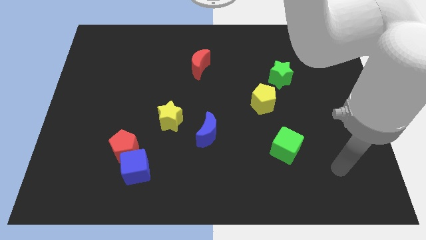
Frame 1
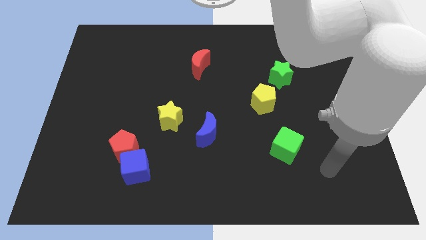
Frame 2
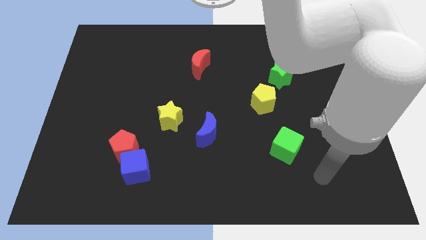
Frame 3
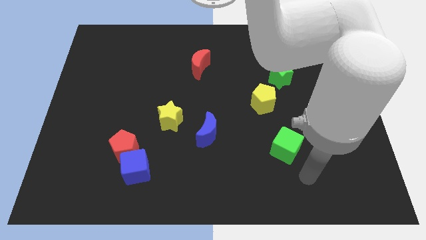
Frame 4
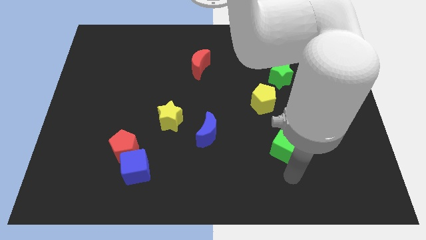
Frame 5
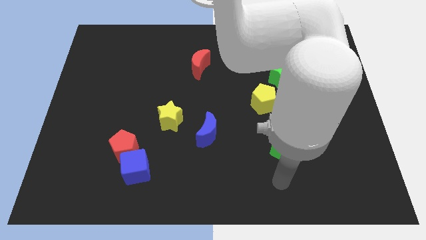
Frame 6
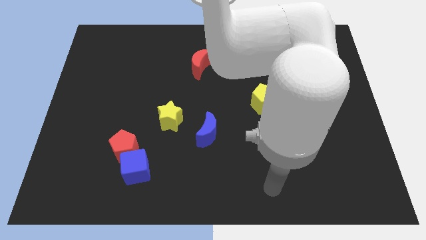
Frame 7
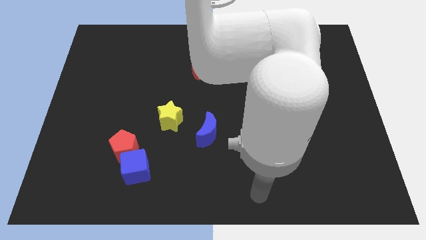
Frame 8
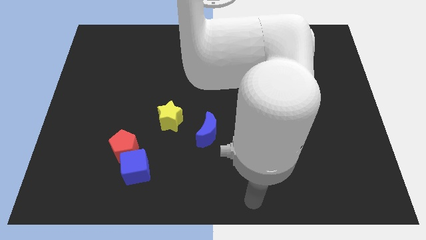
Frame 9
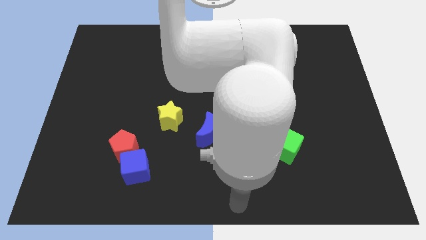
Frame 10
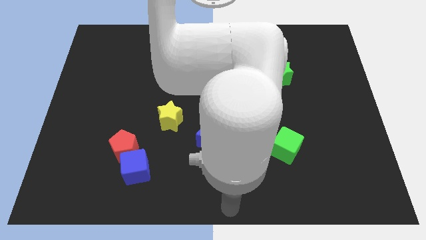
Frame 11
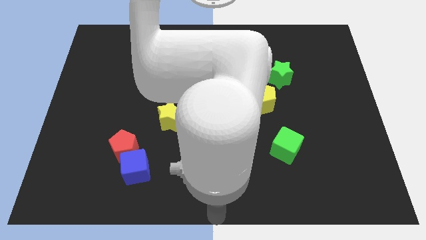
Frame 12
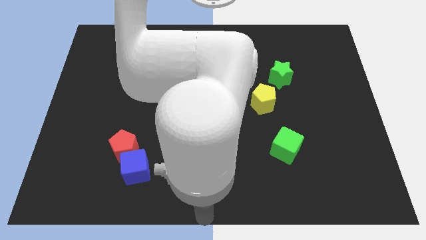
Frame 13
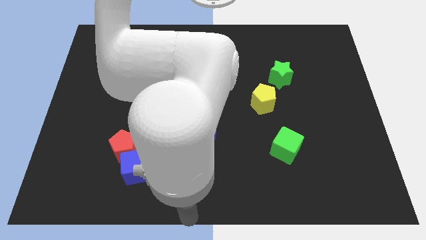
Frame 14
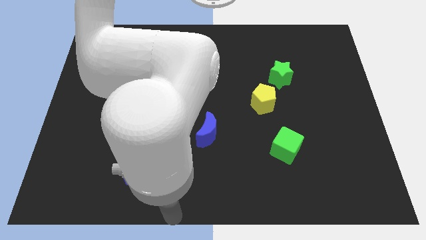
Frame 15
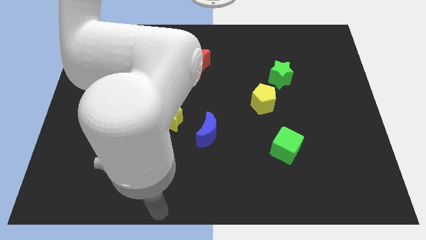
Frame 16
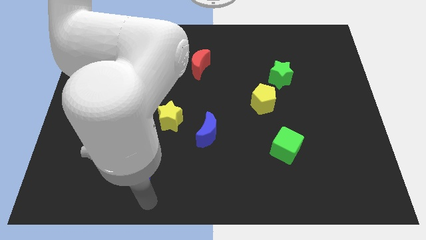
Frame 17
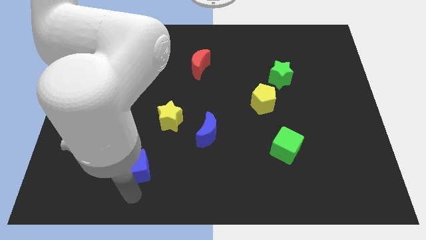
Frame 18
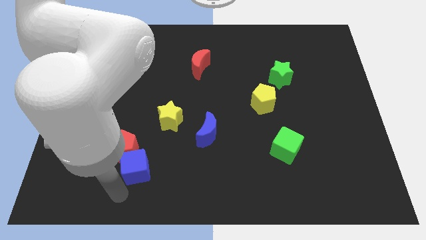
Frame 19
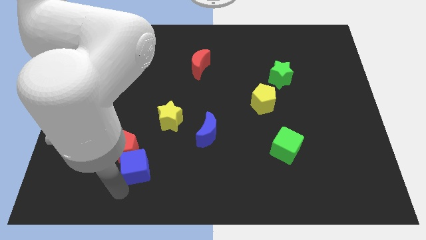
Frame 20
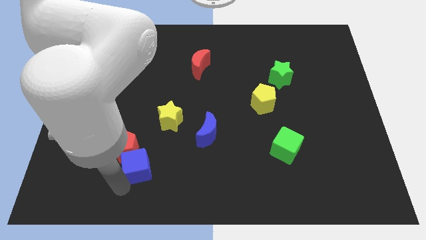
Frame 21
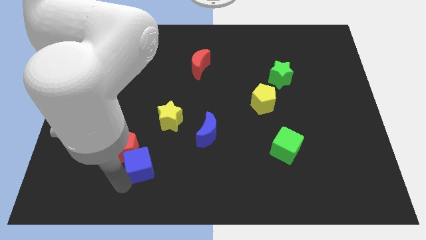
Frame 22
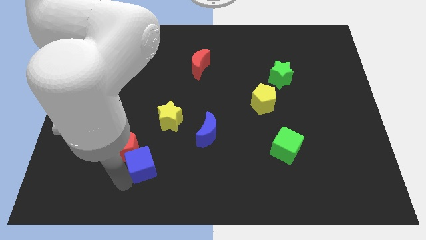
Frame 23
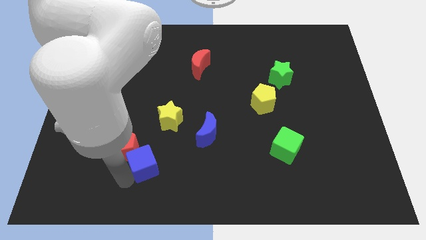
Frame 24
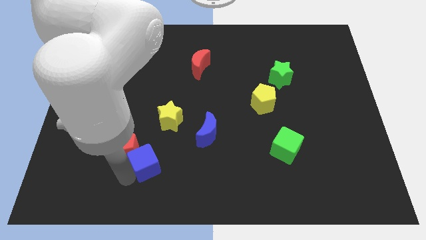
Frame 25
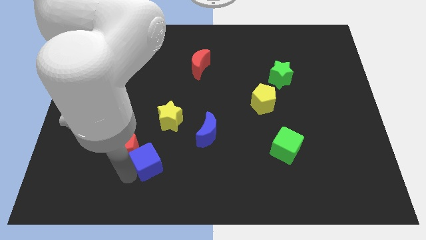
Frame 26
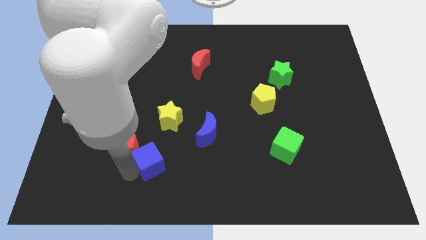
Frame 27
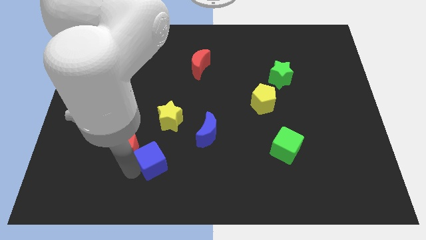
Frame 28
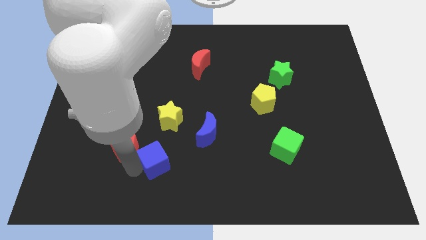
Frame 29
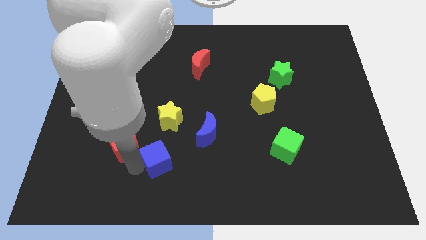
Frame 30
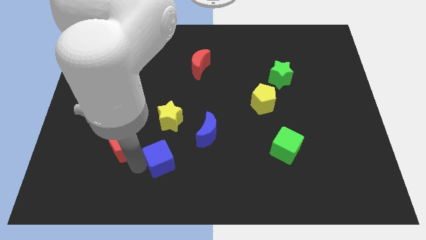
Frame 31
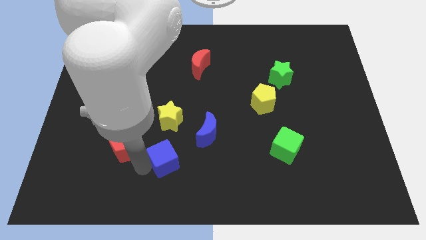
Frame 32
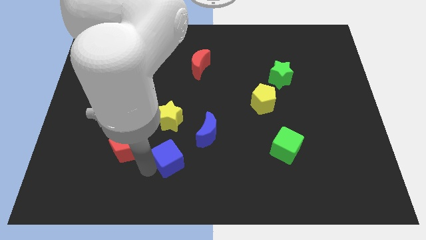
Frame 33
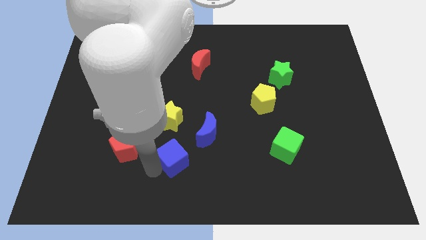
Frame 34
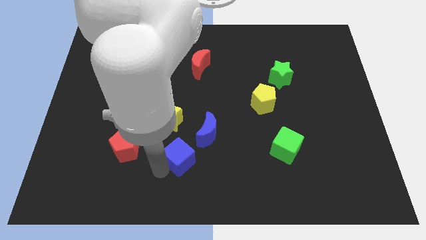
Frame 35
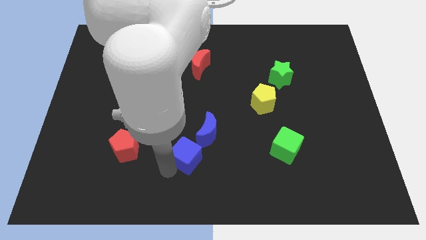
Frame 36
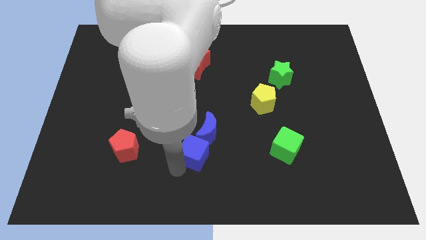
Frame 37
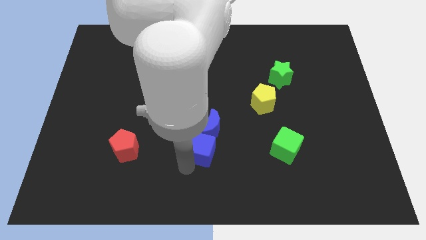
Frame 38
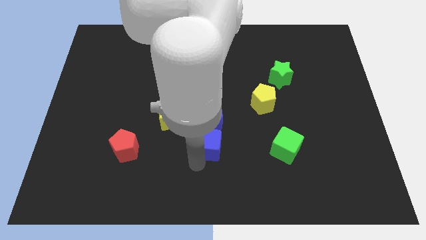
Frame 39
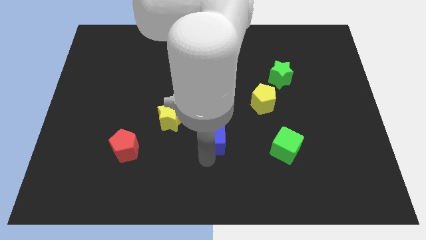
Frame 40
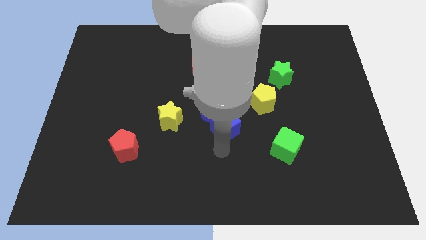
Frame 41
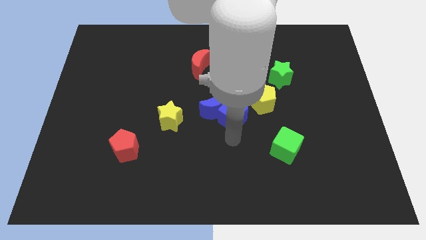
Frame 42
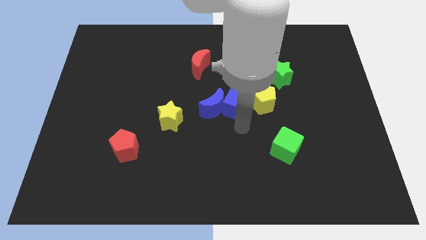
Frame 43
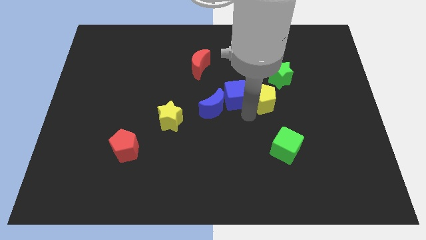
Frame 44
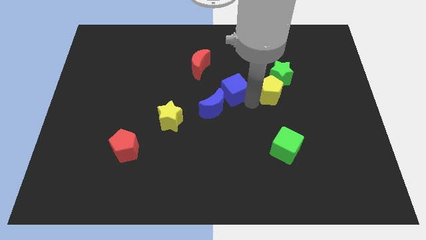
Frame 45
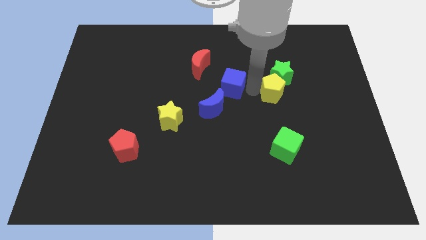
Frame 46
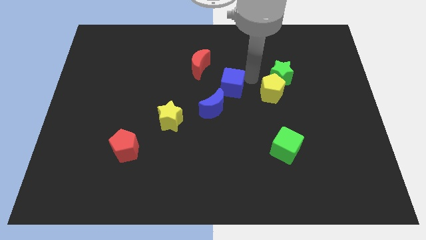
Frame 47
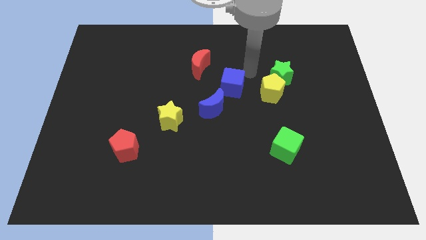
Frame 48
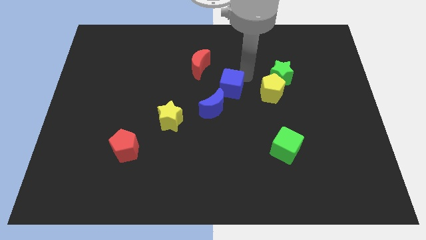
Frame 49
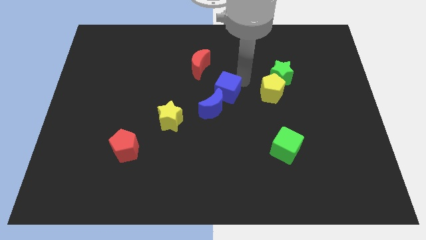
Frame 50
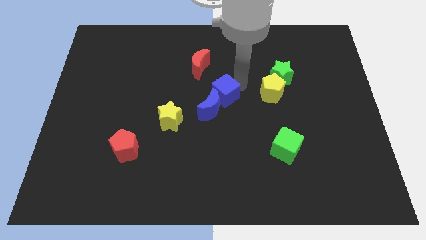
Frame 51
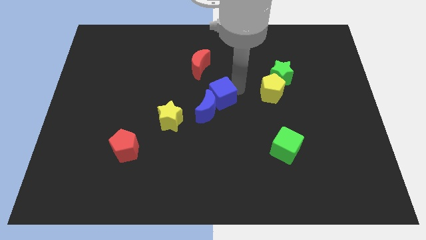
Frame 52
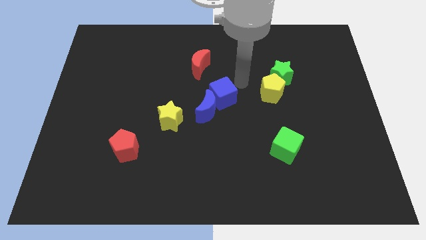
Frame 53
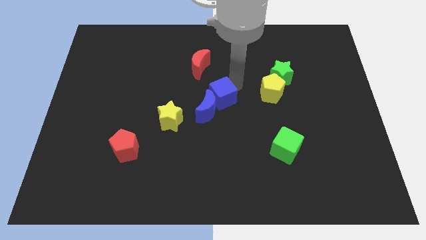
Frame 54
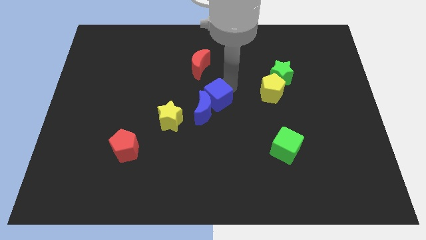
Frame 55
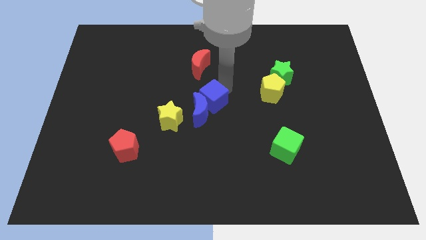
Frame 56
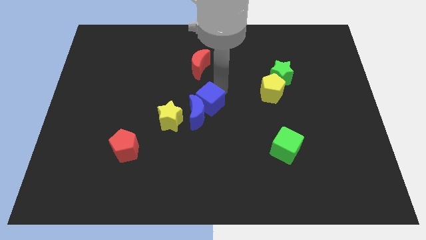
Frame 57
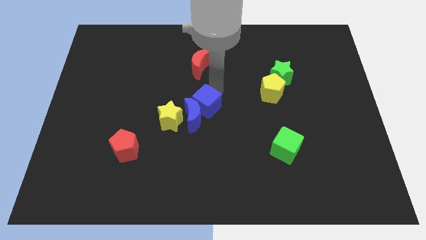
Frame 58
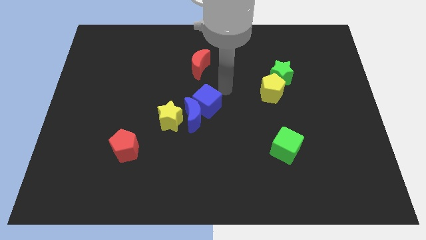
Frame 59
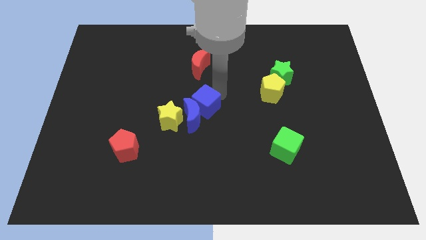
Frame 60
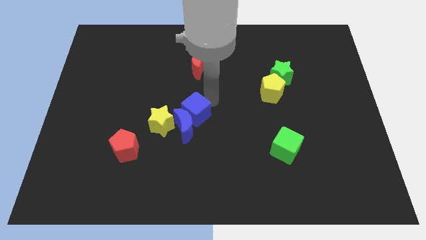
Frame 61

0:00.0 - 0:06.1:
move the blue cube a little bit up

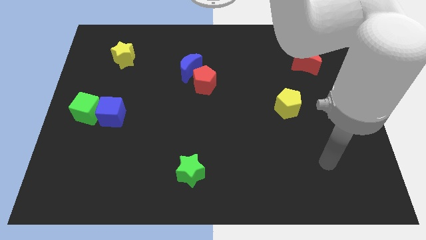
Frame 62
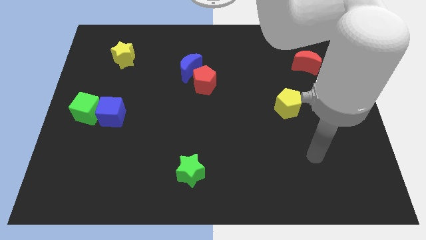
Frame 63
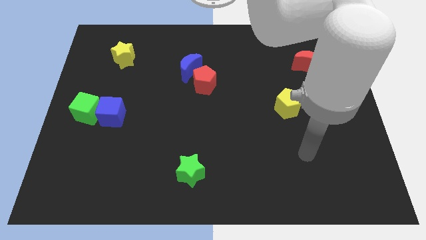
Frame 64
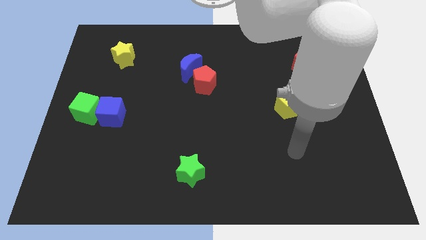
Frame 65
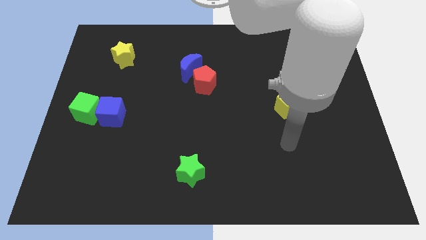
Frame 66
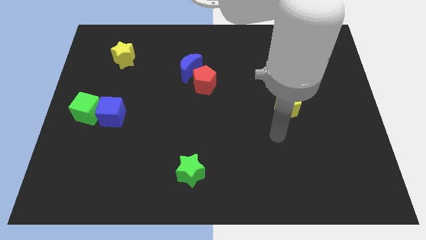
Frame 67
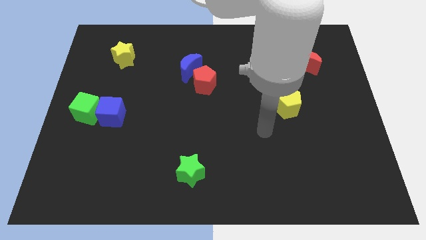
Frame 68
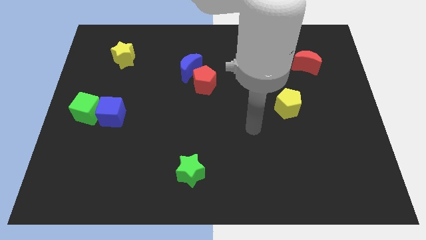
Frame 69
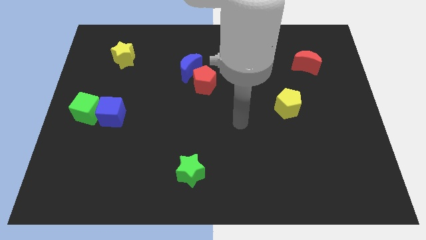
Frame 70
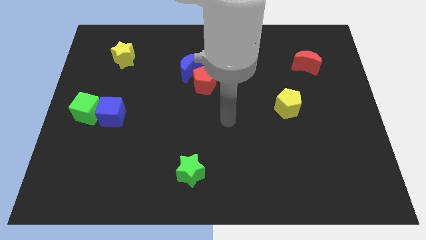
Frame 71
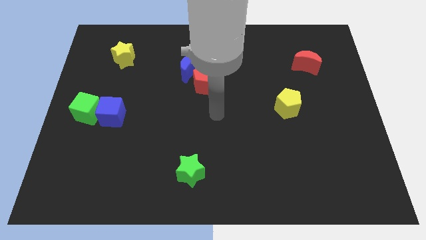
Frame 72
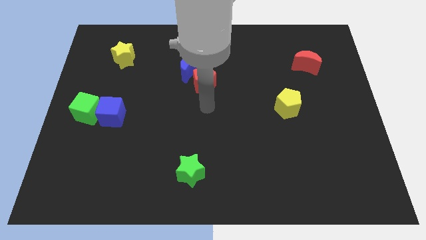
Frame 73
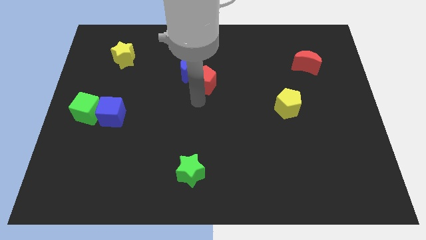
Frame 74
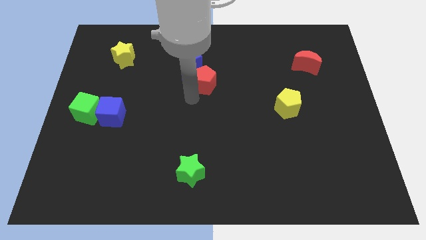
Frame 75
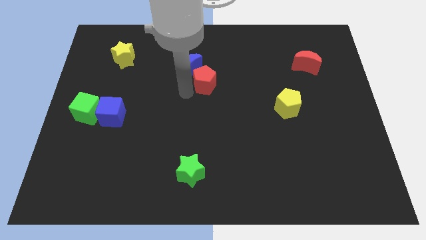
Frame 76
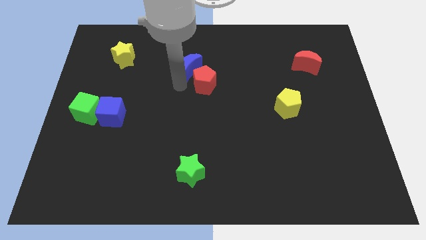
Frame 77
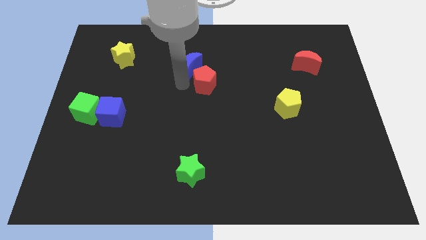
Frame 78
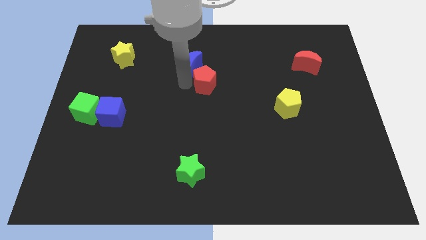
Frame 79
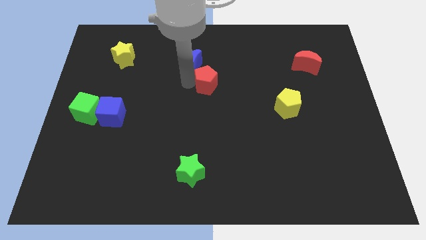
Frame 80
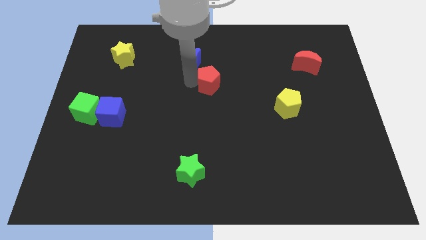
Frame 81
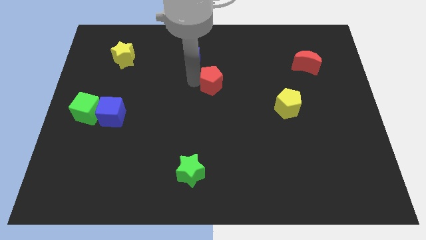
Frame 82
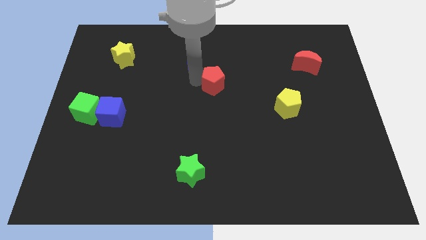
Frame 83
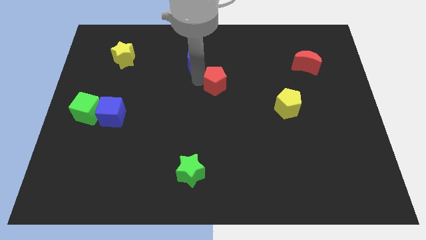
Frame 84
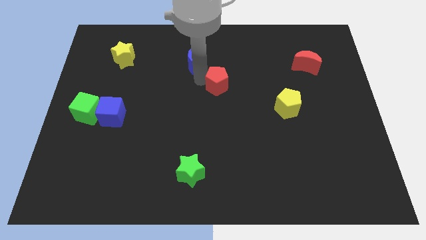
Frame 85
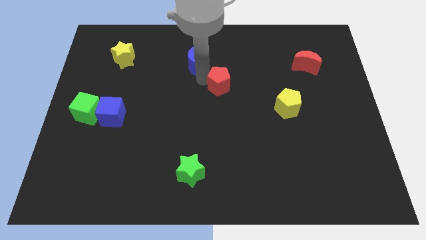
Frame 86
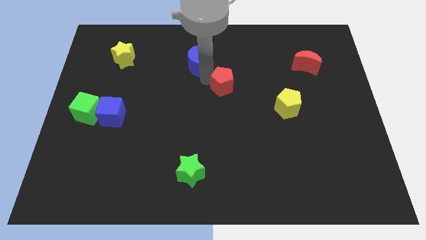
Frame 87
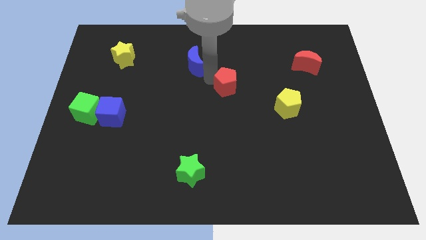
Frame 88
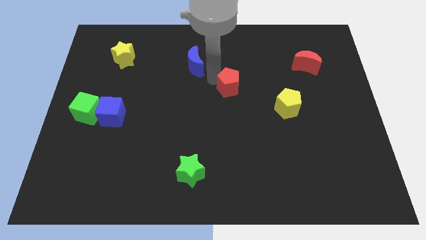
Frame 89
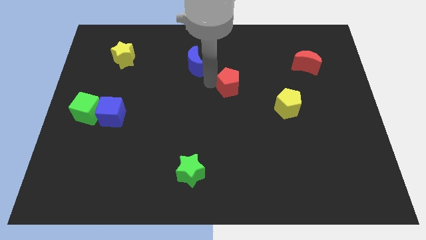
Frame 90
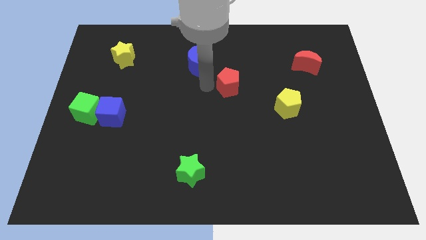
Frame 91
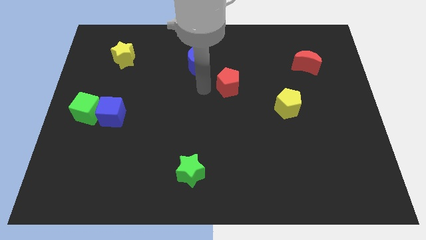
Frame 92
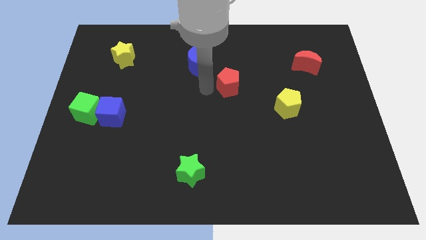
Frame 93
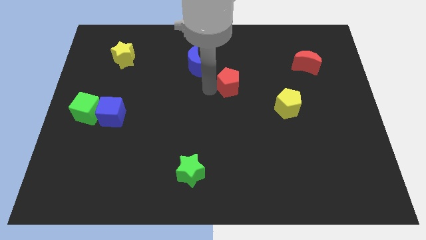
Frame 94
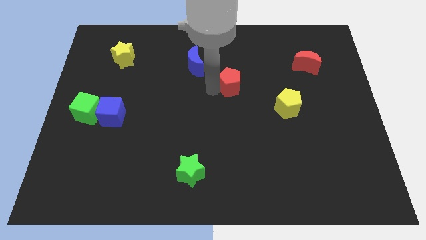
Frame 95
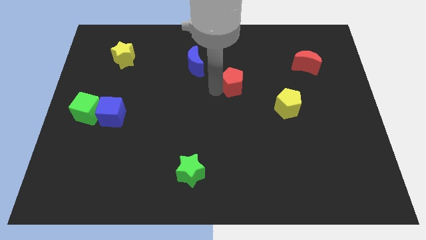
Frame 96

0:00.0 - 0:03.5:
push the red pentagon to the right a bit
